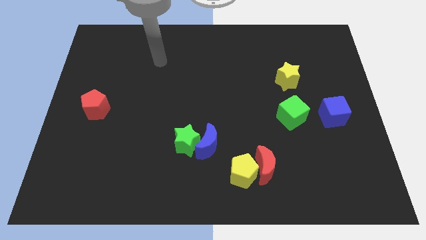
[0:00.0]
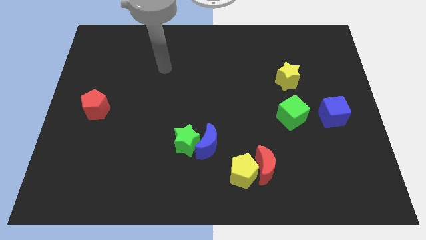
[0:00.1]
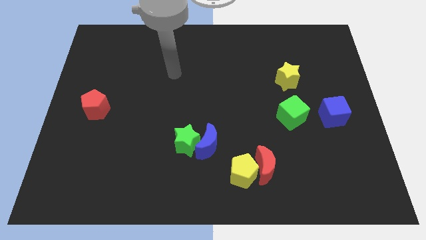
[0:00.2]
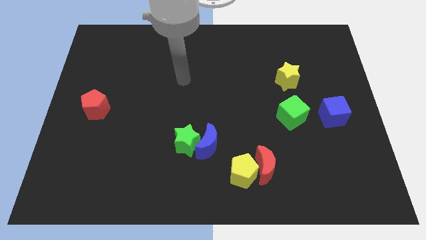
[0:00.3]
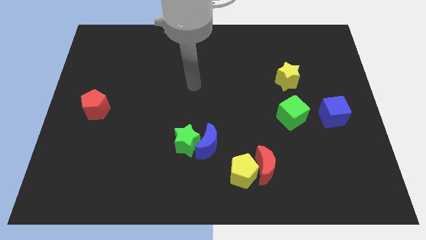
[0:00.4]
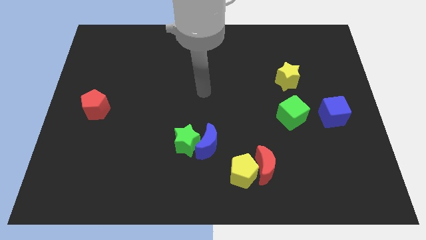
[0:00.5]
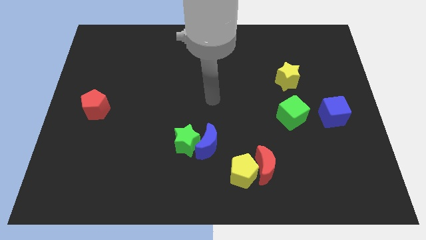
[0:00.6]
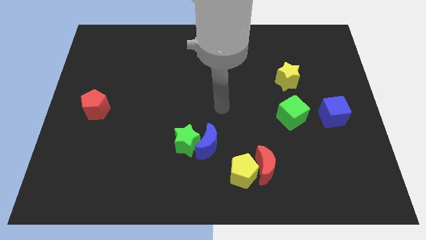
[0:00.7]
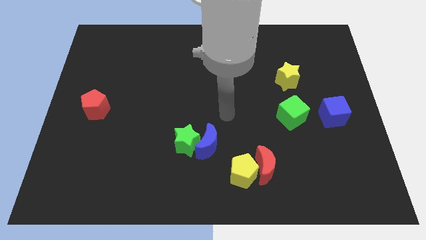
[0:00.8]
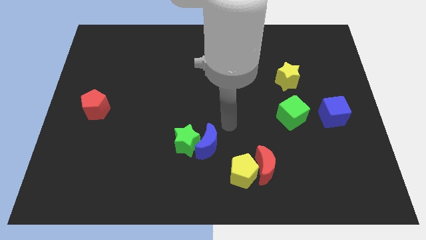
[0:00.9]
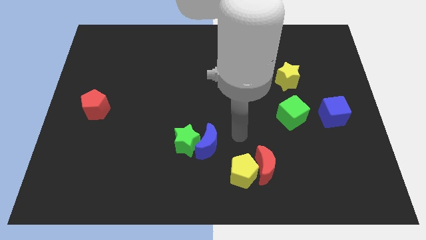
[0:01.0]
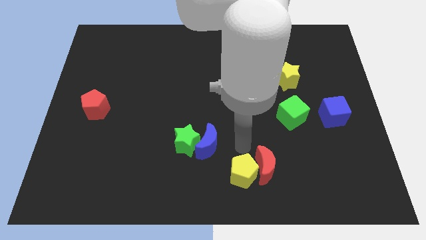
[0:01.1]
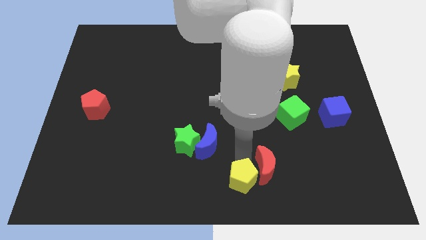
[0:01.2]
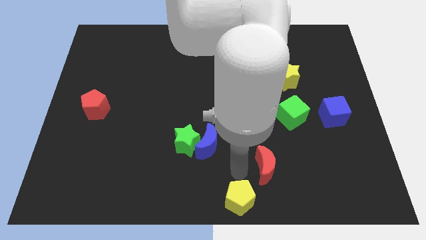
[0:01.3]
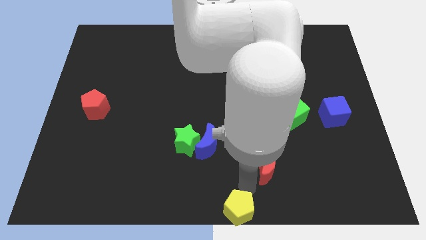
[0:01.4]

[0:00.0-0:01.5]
pull the red moon apart from the yellow pentagon

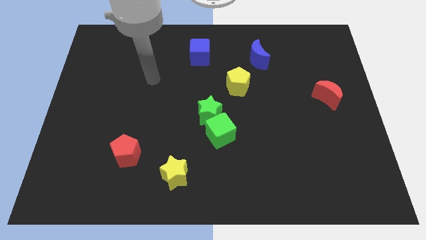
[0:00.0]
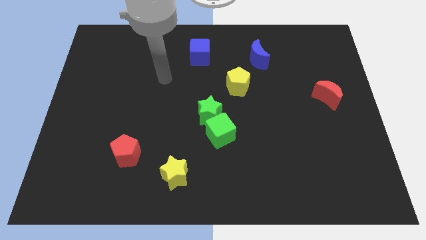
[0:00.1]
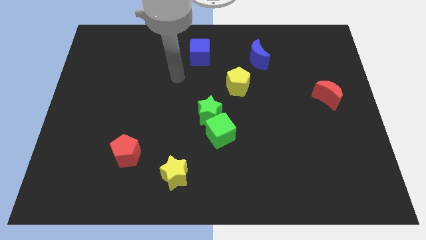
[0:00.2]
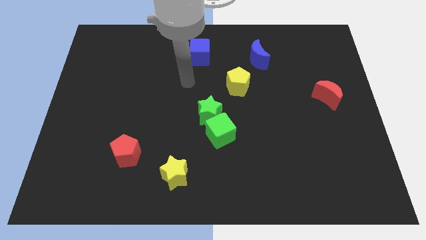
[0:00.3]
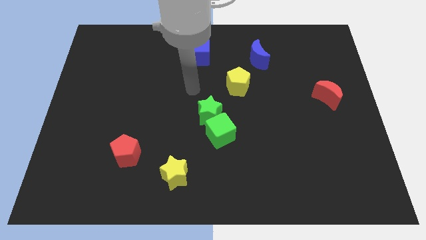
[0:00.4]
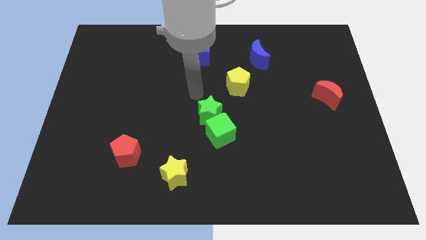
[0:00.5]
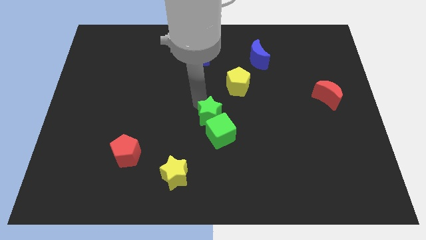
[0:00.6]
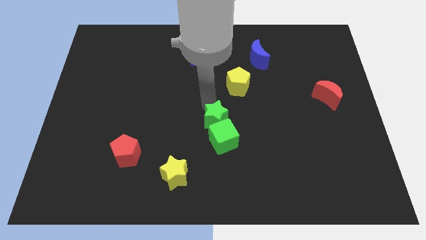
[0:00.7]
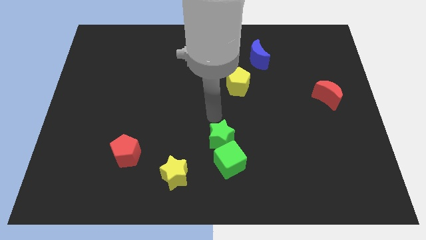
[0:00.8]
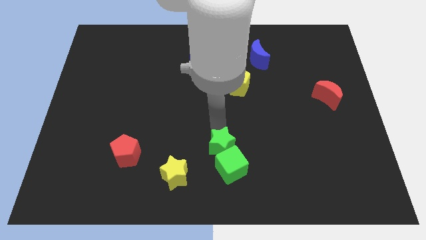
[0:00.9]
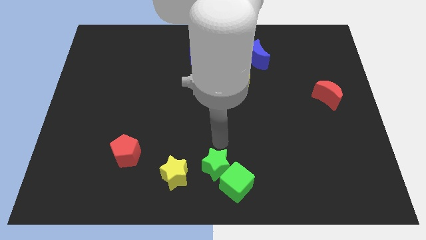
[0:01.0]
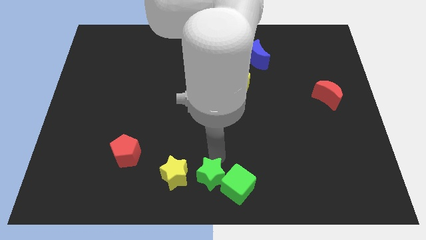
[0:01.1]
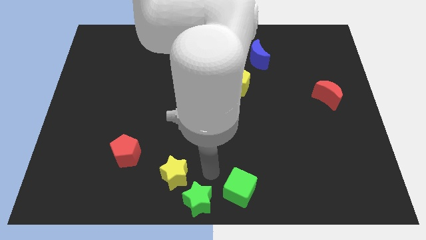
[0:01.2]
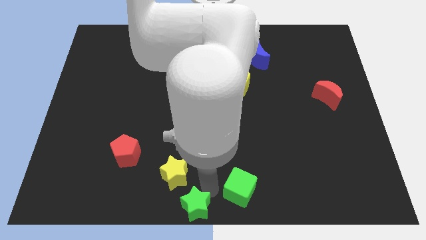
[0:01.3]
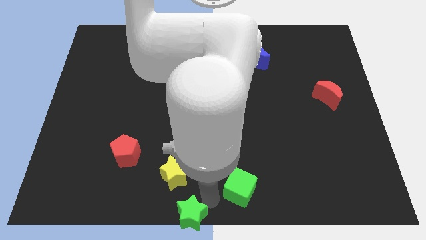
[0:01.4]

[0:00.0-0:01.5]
pull the green cube apart from the green star

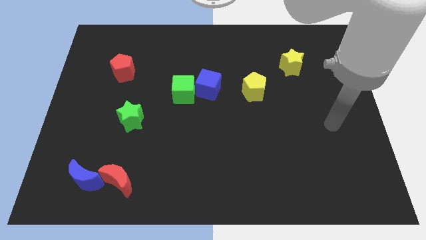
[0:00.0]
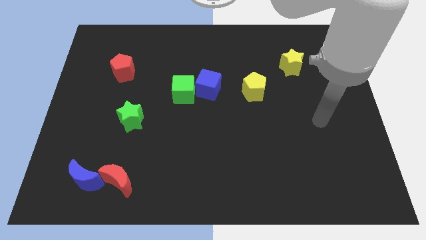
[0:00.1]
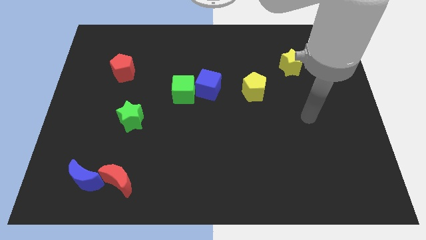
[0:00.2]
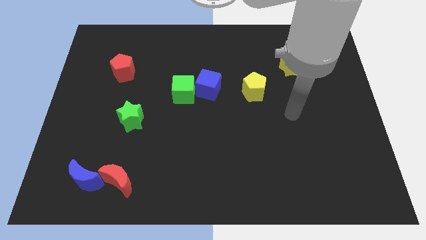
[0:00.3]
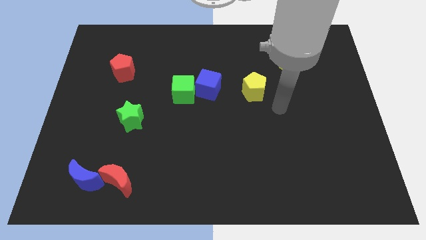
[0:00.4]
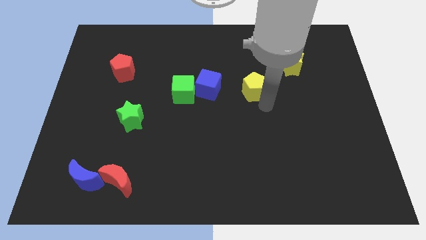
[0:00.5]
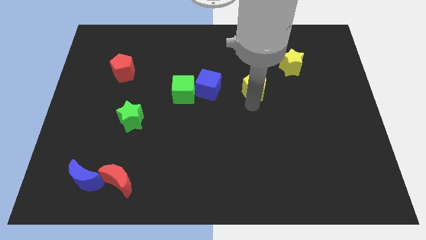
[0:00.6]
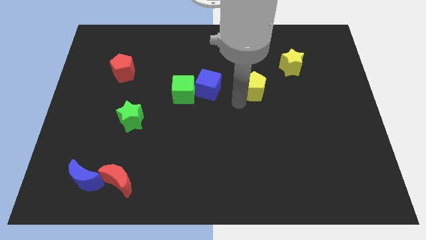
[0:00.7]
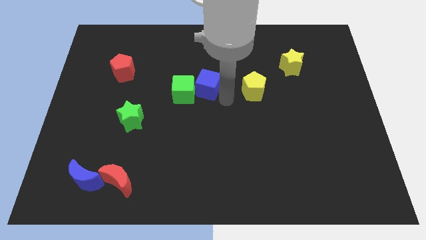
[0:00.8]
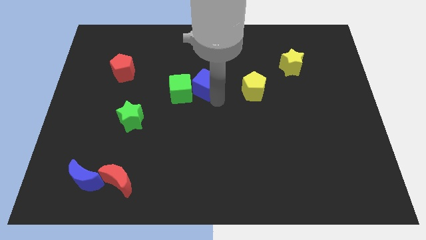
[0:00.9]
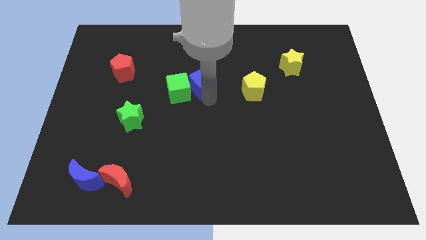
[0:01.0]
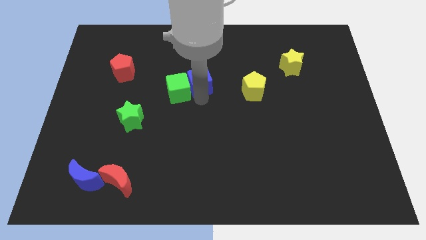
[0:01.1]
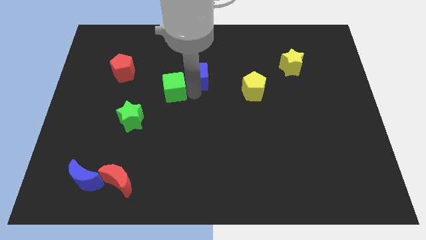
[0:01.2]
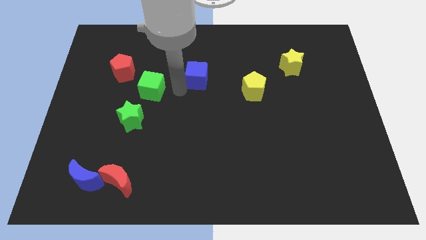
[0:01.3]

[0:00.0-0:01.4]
pull the blue cube apart from the green cube

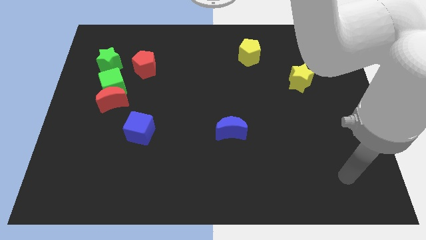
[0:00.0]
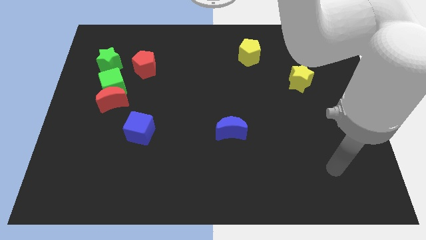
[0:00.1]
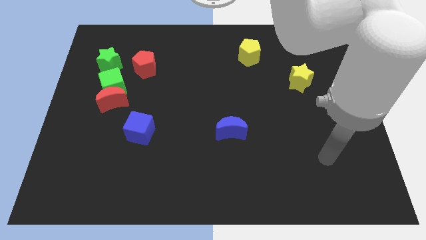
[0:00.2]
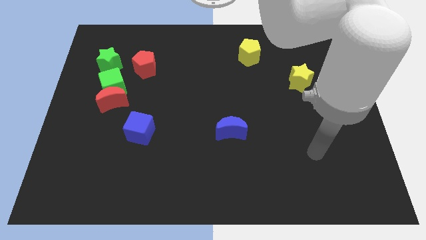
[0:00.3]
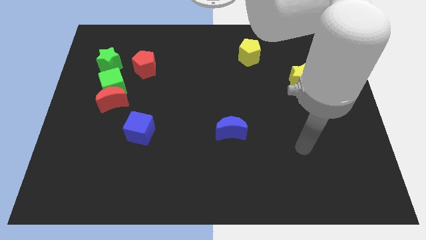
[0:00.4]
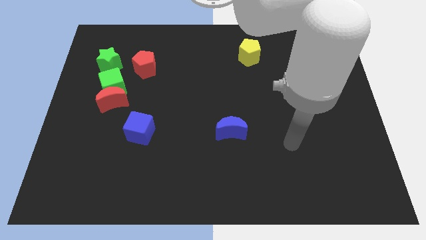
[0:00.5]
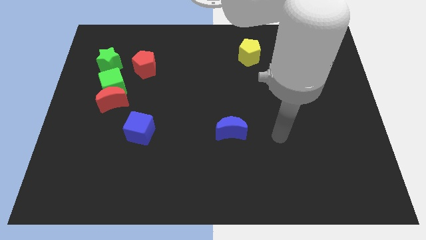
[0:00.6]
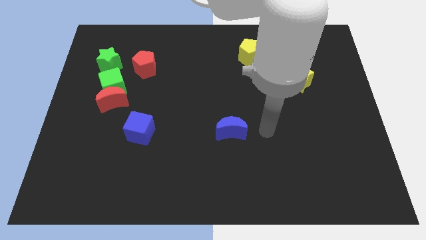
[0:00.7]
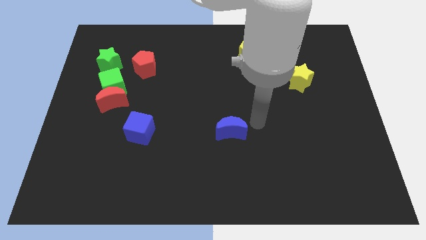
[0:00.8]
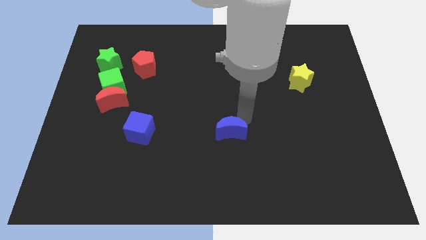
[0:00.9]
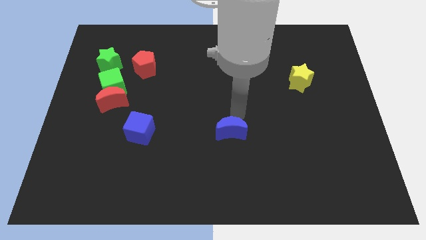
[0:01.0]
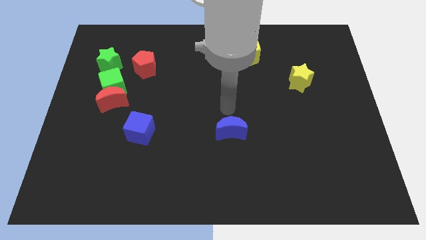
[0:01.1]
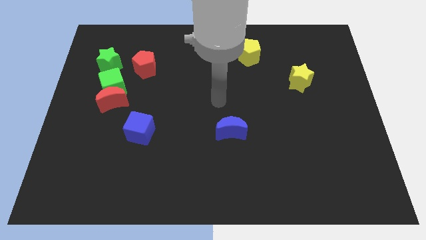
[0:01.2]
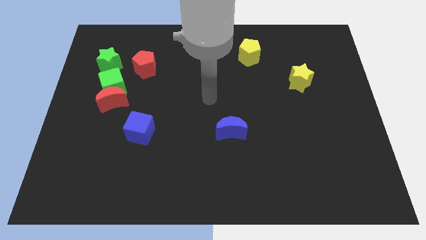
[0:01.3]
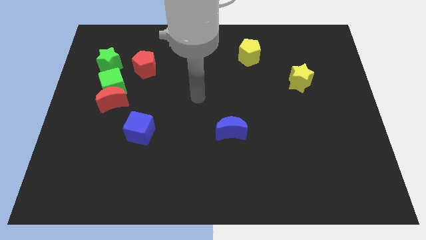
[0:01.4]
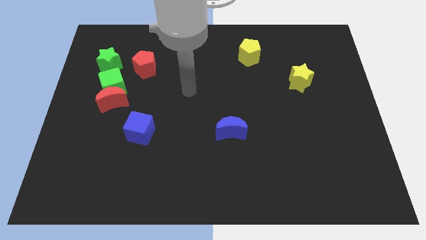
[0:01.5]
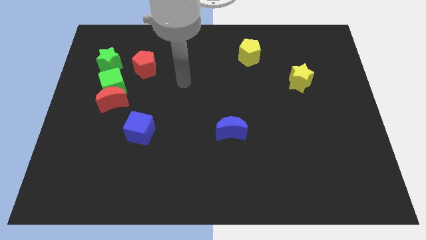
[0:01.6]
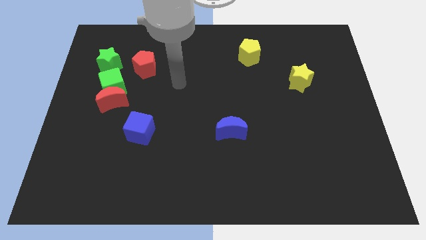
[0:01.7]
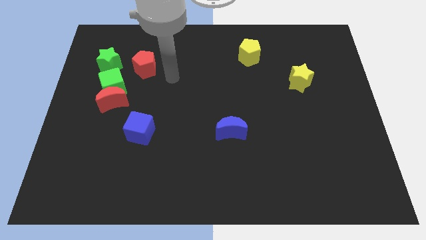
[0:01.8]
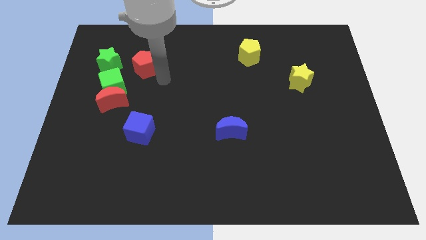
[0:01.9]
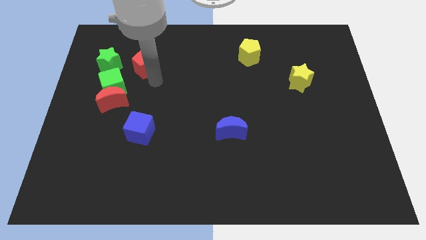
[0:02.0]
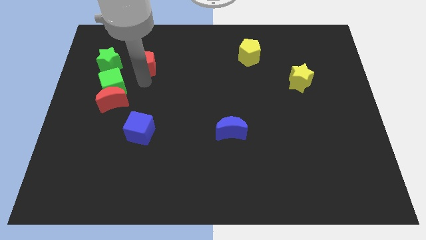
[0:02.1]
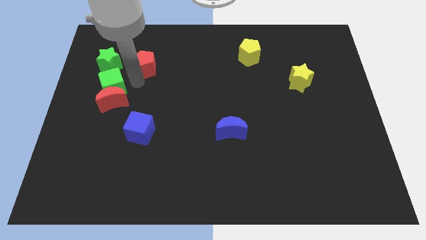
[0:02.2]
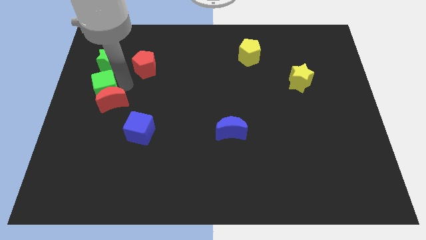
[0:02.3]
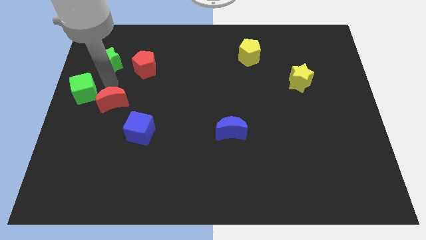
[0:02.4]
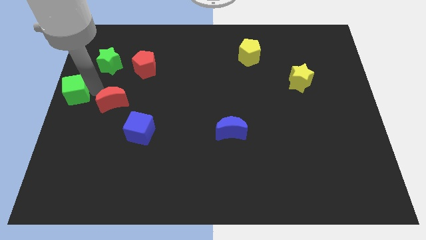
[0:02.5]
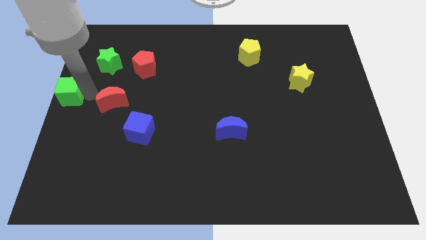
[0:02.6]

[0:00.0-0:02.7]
pull the red moon apart from the green cube

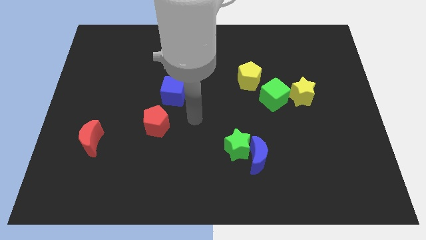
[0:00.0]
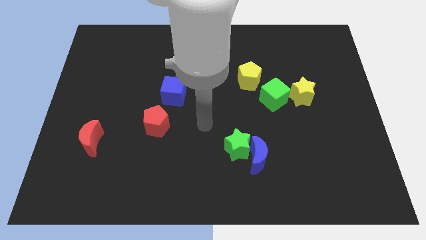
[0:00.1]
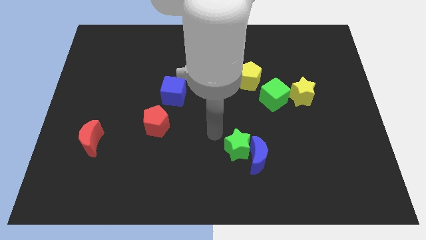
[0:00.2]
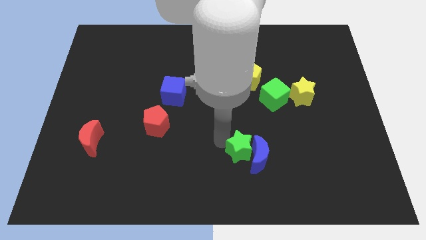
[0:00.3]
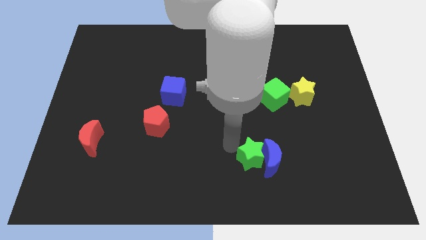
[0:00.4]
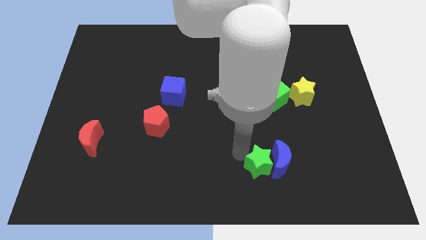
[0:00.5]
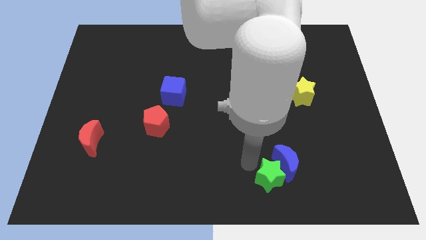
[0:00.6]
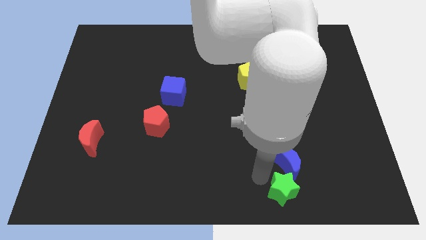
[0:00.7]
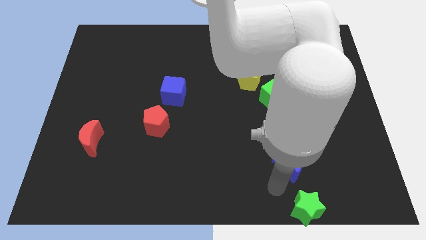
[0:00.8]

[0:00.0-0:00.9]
pull the blue moon apart from the green star

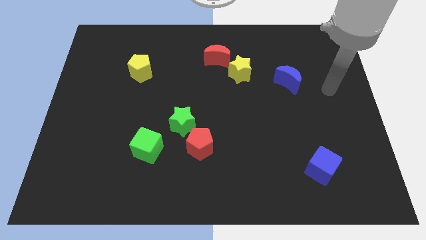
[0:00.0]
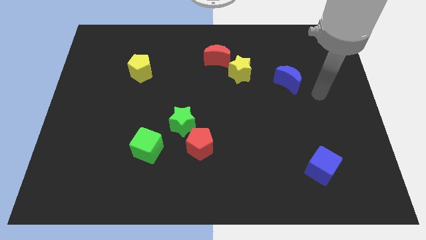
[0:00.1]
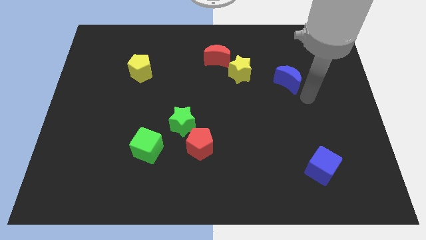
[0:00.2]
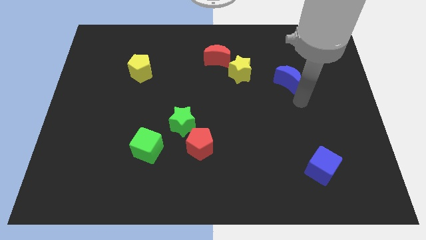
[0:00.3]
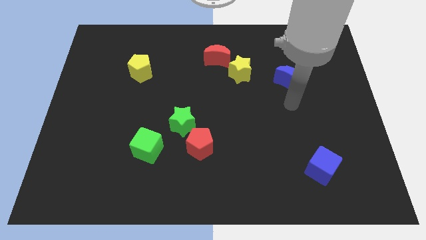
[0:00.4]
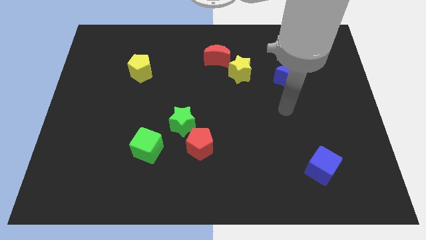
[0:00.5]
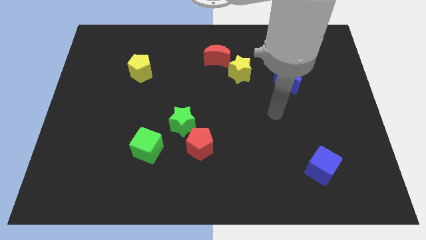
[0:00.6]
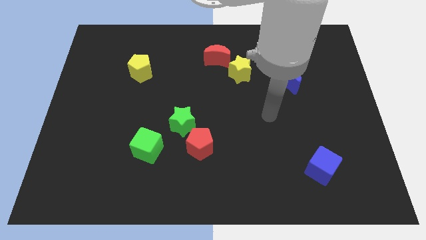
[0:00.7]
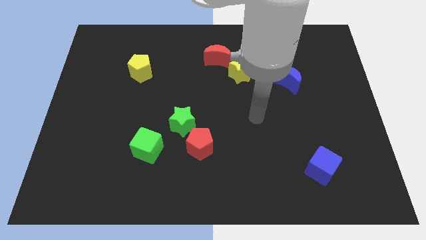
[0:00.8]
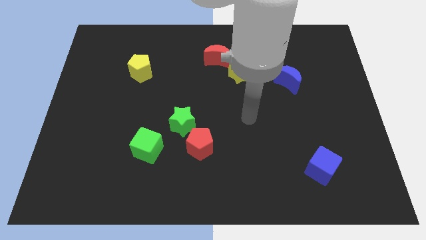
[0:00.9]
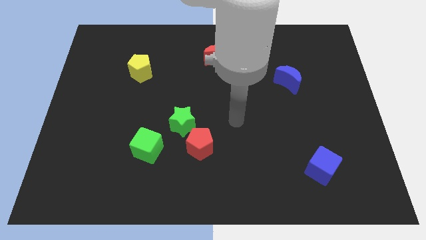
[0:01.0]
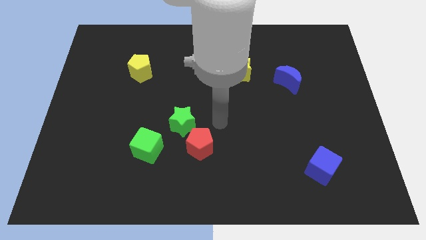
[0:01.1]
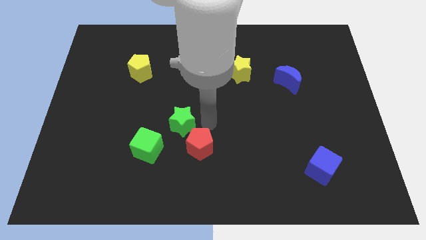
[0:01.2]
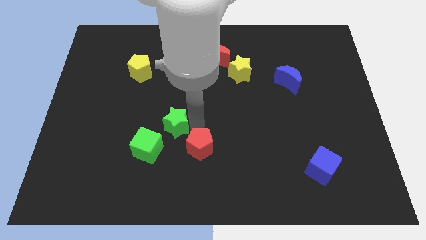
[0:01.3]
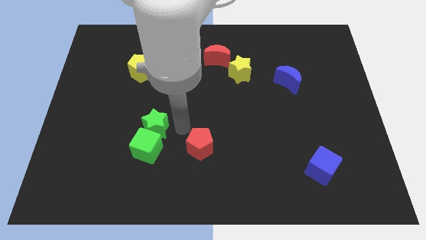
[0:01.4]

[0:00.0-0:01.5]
move the red pentagon away from the green star
